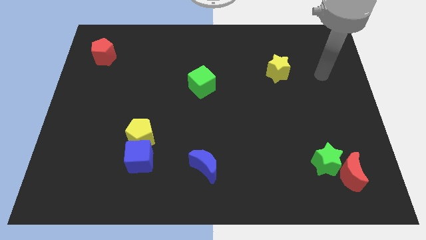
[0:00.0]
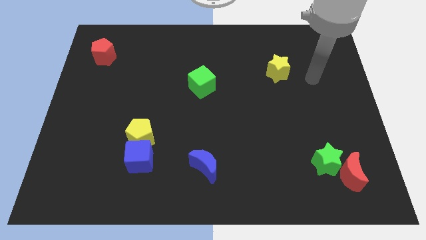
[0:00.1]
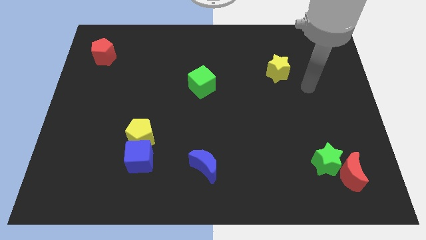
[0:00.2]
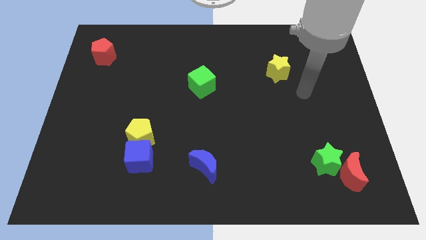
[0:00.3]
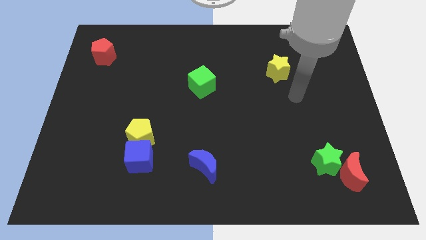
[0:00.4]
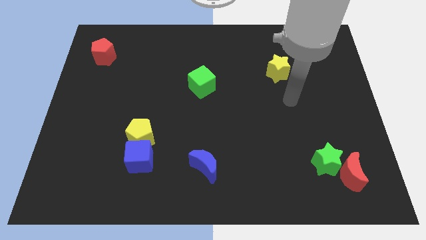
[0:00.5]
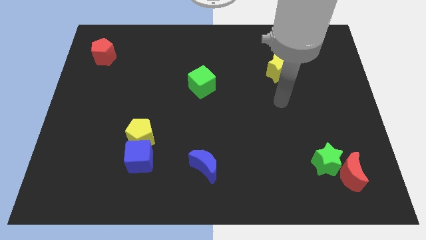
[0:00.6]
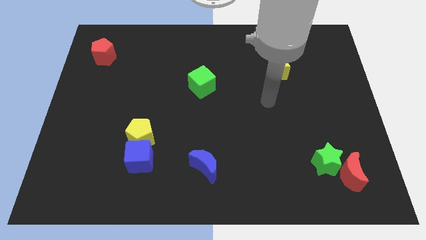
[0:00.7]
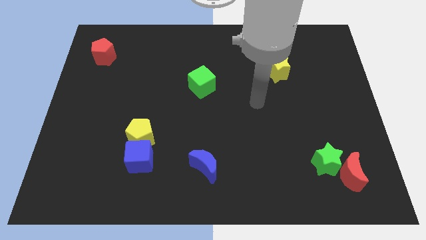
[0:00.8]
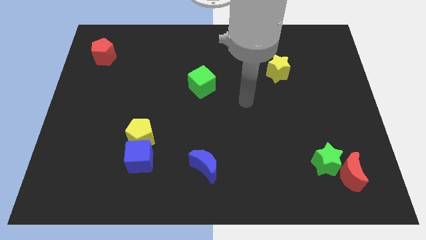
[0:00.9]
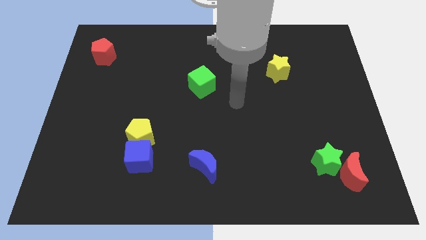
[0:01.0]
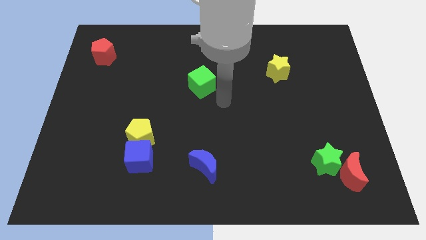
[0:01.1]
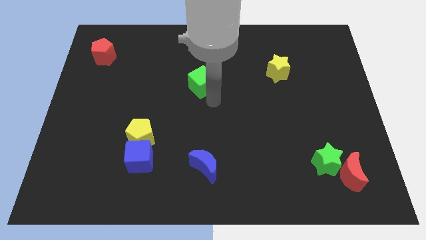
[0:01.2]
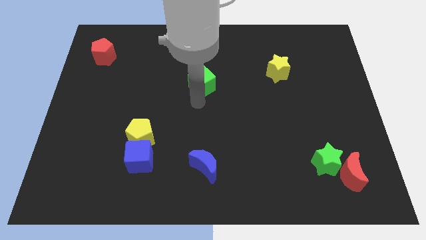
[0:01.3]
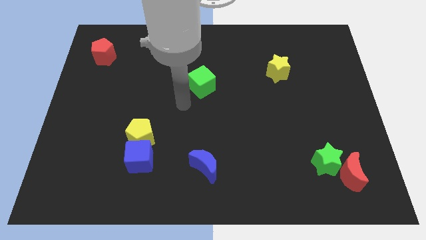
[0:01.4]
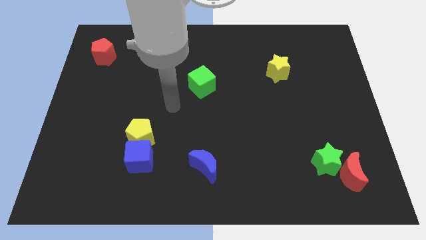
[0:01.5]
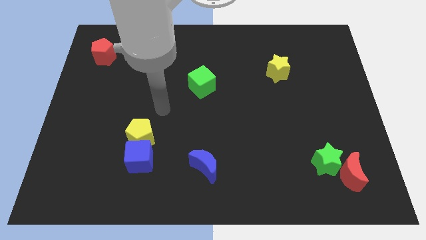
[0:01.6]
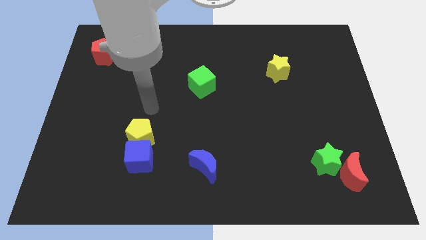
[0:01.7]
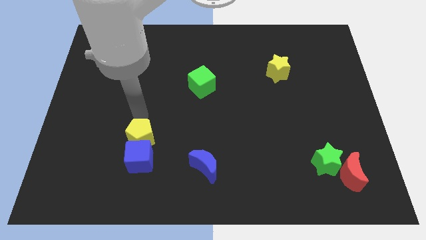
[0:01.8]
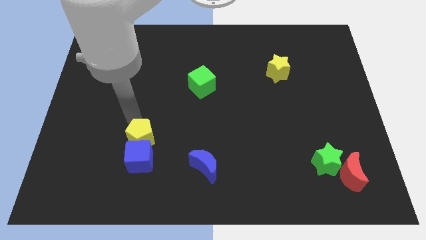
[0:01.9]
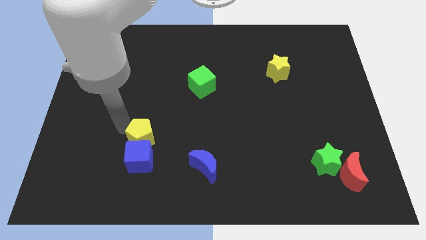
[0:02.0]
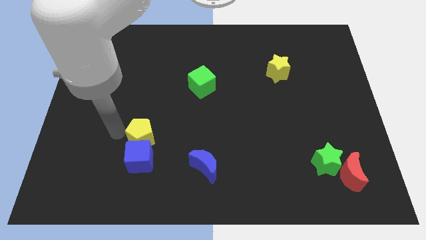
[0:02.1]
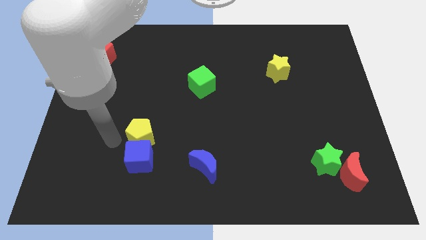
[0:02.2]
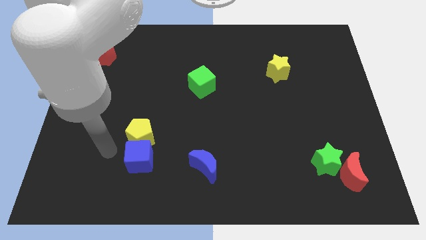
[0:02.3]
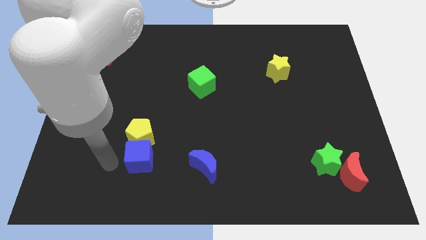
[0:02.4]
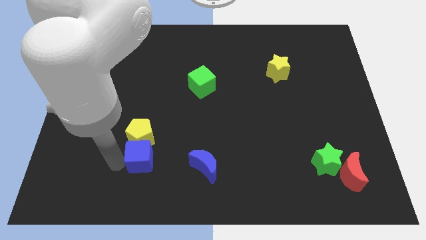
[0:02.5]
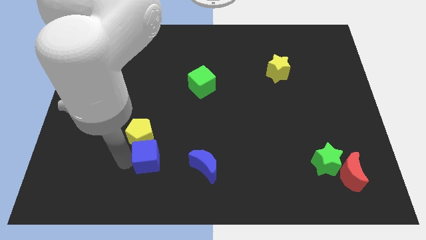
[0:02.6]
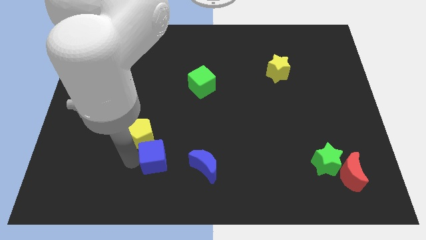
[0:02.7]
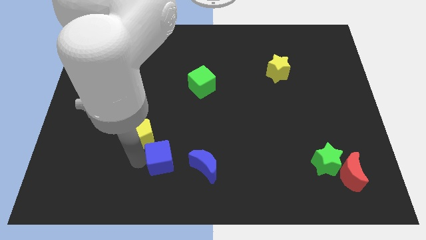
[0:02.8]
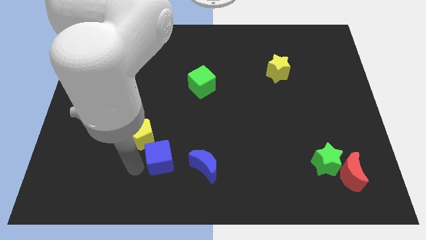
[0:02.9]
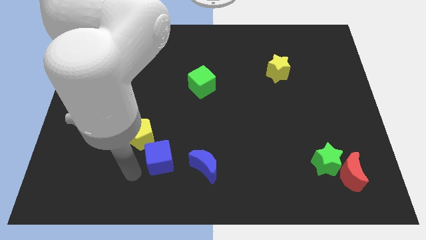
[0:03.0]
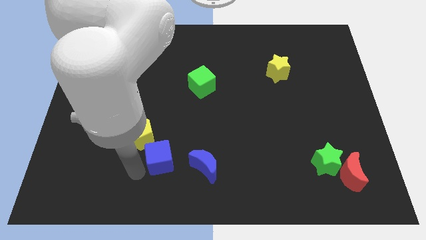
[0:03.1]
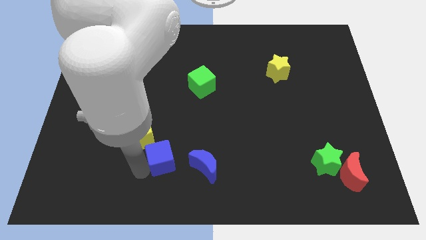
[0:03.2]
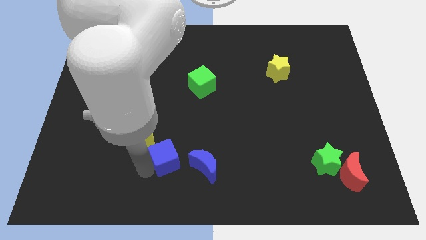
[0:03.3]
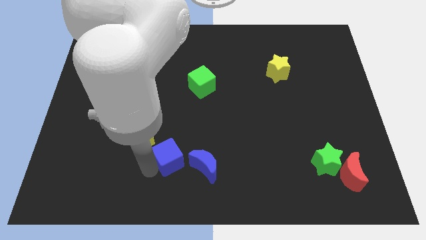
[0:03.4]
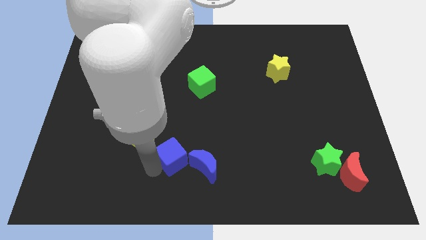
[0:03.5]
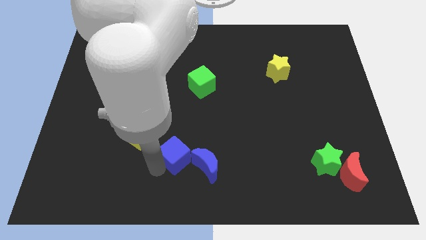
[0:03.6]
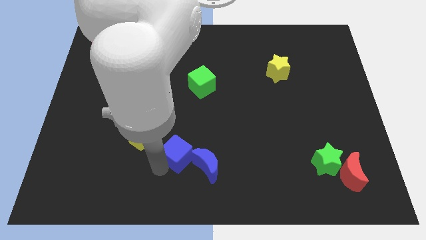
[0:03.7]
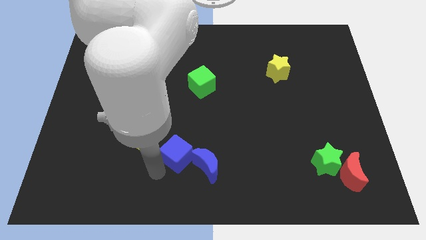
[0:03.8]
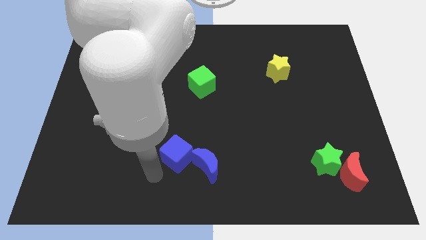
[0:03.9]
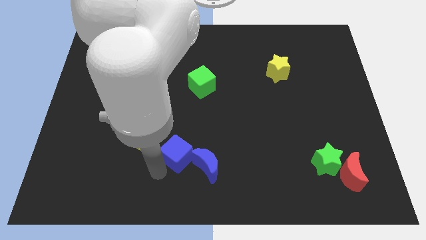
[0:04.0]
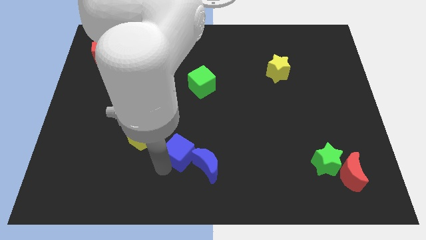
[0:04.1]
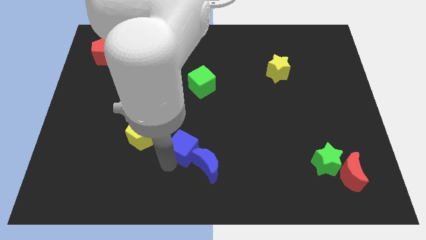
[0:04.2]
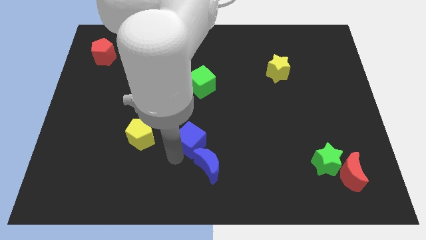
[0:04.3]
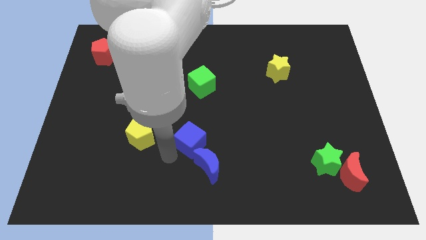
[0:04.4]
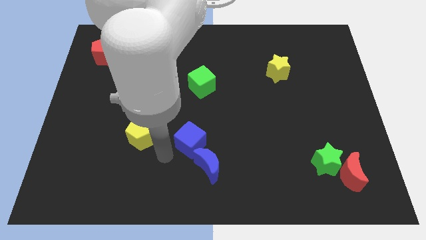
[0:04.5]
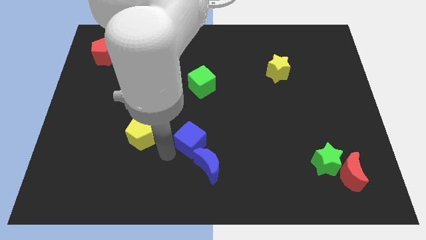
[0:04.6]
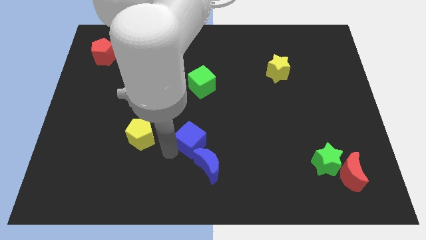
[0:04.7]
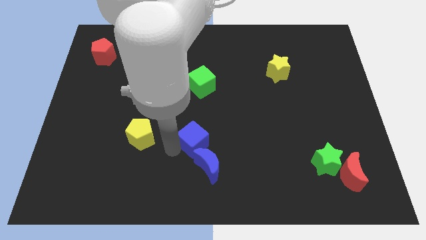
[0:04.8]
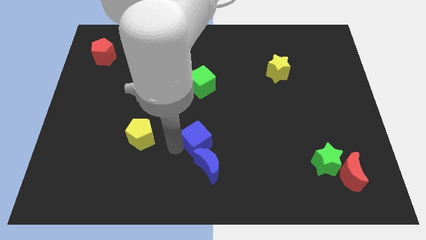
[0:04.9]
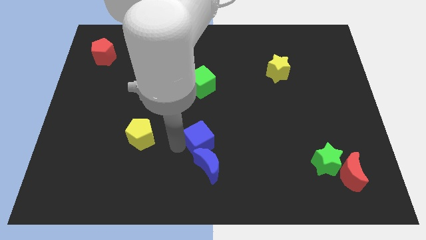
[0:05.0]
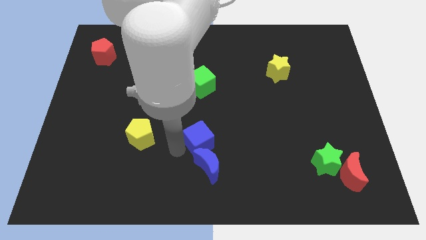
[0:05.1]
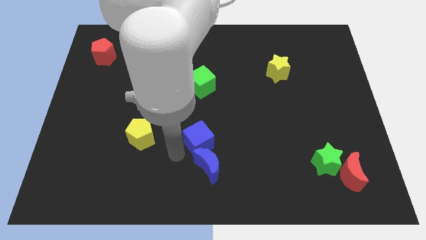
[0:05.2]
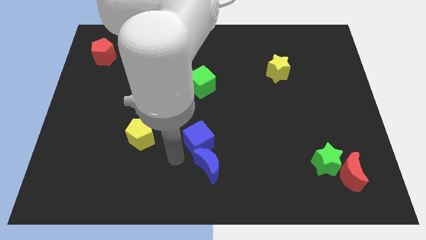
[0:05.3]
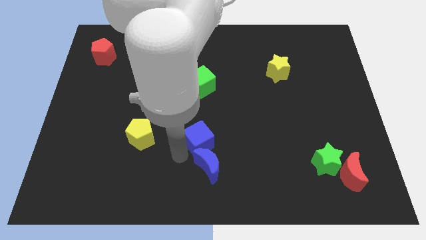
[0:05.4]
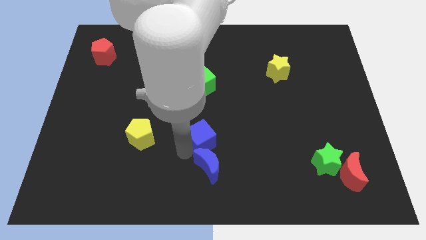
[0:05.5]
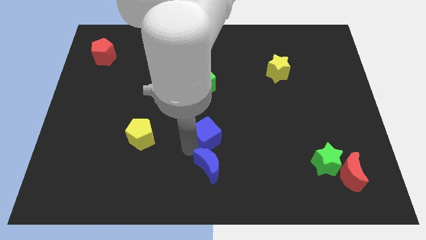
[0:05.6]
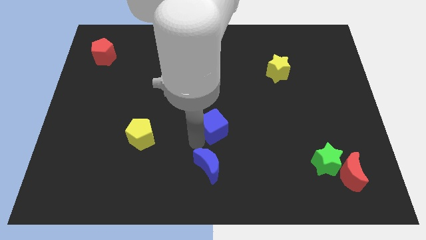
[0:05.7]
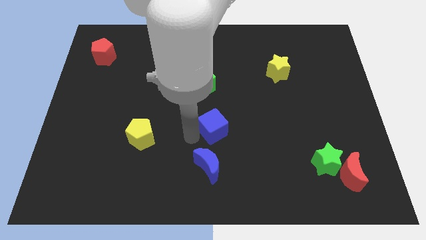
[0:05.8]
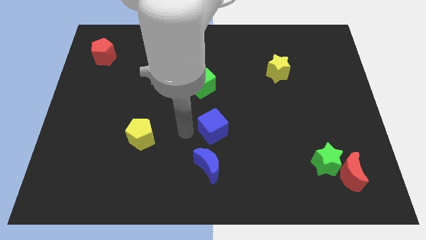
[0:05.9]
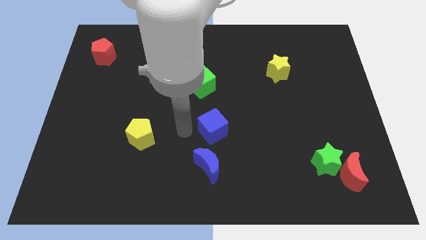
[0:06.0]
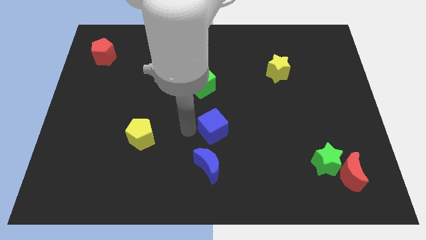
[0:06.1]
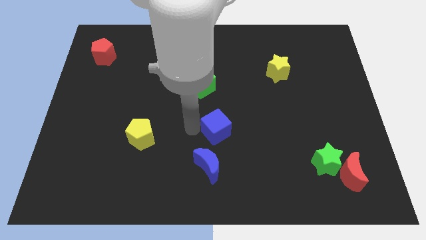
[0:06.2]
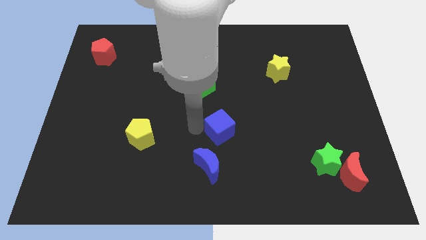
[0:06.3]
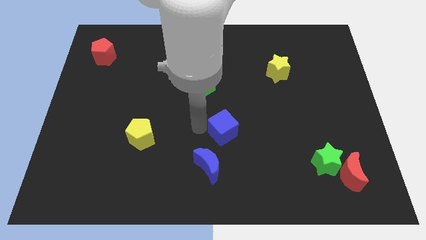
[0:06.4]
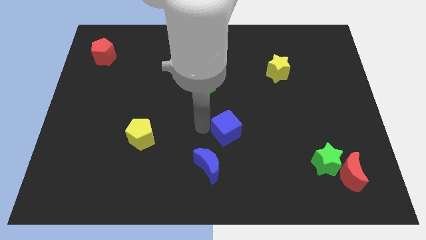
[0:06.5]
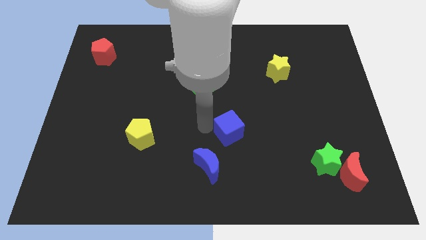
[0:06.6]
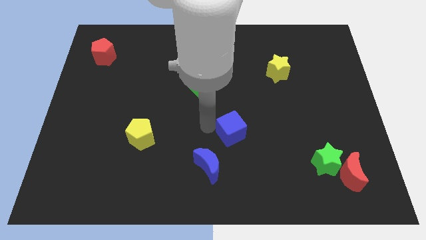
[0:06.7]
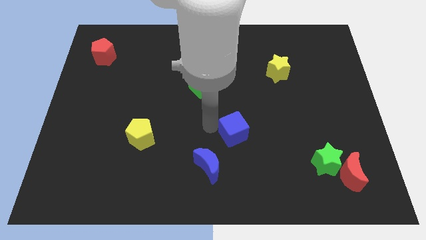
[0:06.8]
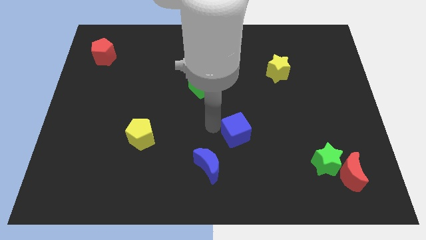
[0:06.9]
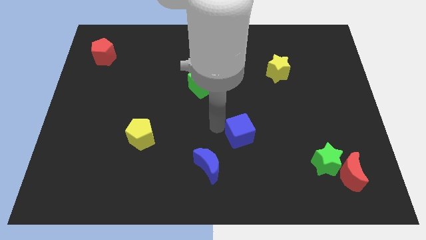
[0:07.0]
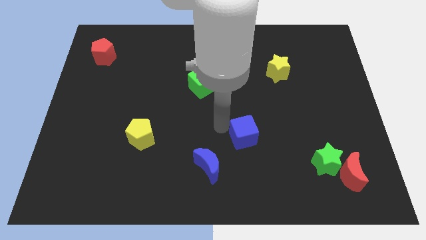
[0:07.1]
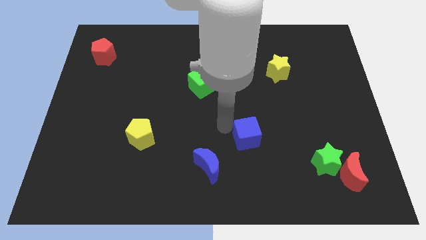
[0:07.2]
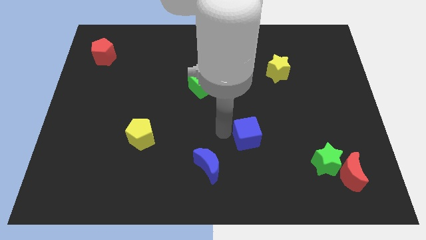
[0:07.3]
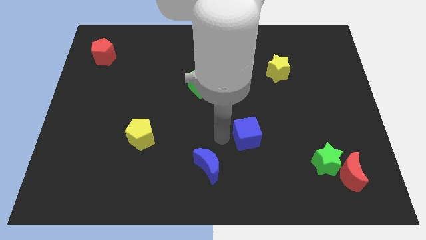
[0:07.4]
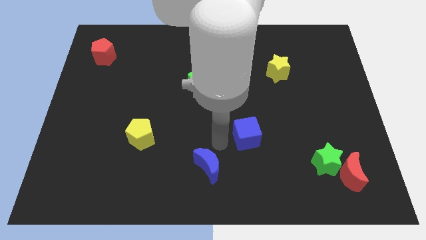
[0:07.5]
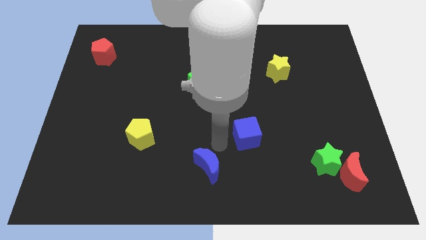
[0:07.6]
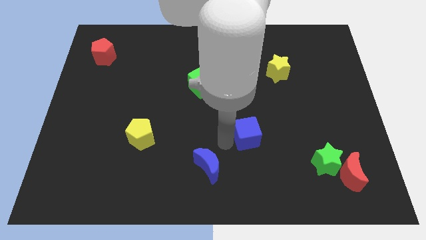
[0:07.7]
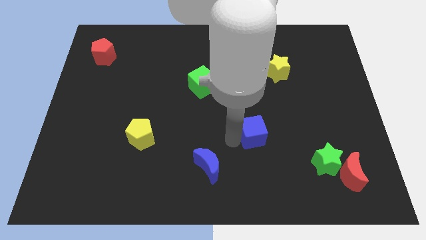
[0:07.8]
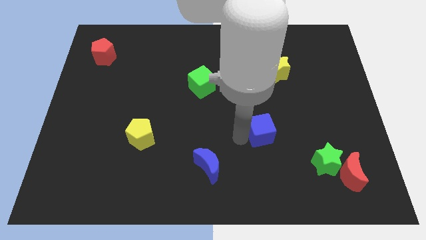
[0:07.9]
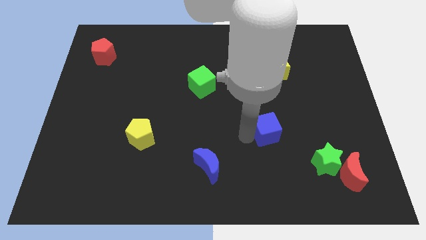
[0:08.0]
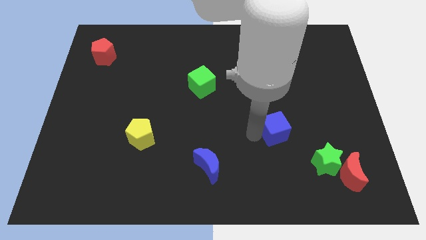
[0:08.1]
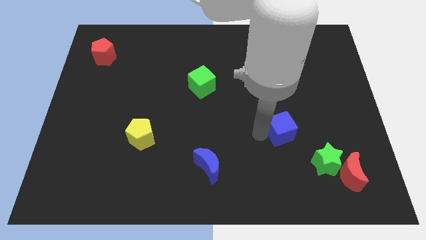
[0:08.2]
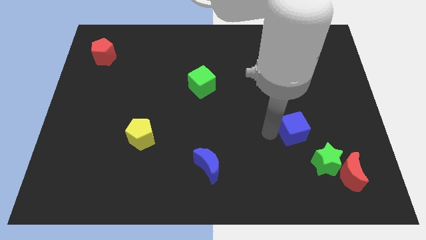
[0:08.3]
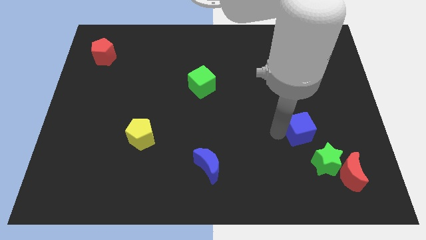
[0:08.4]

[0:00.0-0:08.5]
slide the blue cube above the green star
